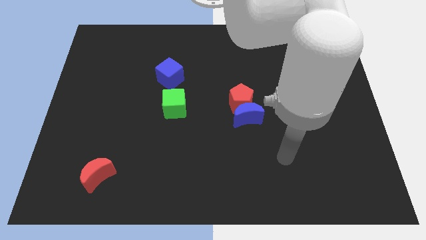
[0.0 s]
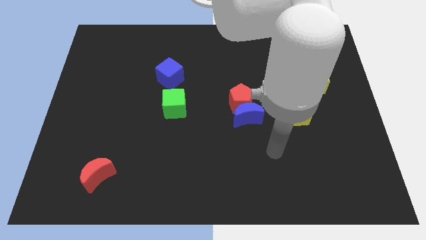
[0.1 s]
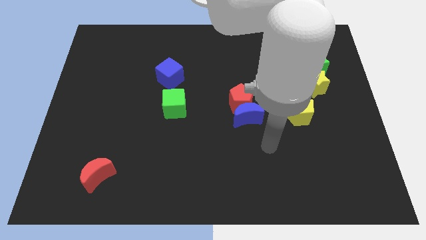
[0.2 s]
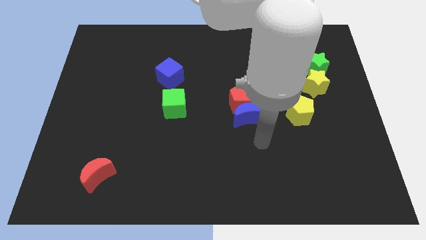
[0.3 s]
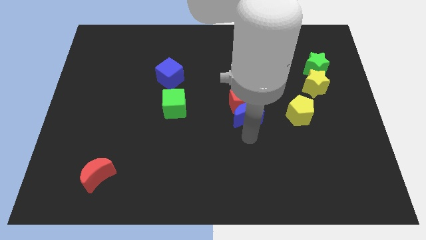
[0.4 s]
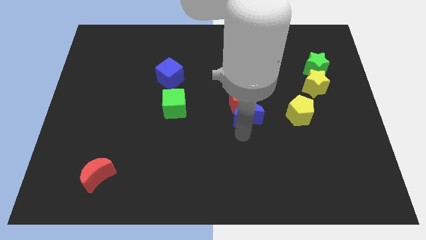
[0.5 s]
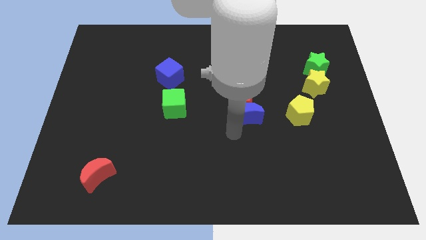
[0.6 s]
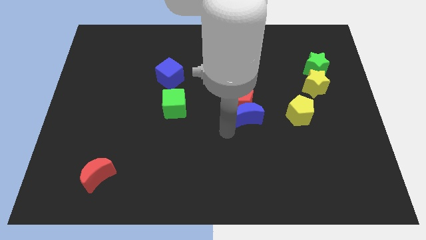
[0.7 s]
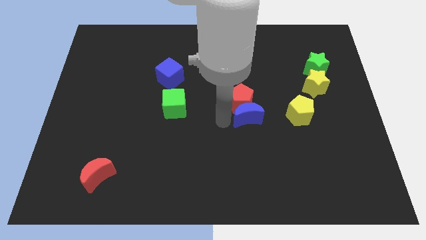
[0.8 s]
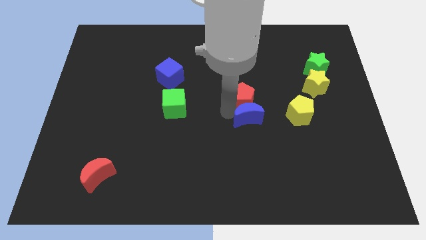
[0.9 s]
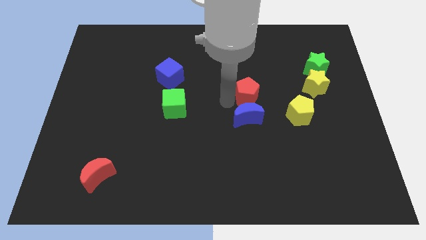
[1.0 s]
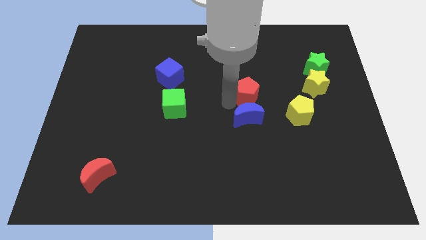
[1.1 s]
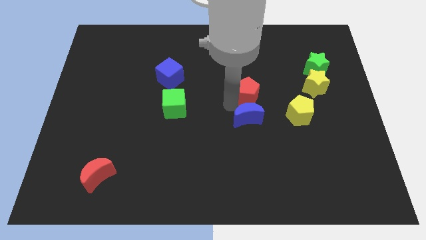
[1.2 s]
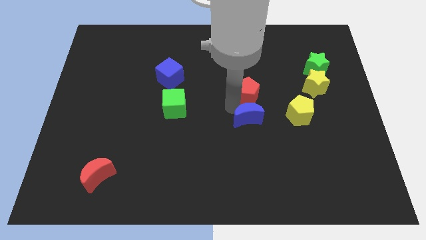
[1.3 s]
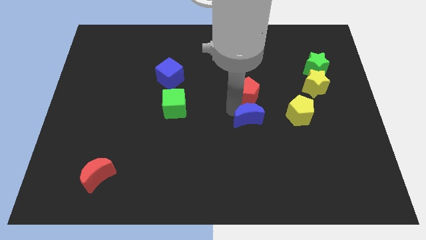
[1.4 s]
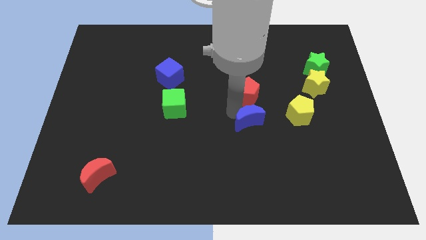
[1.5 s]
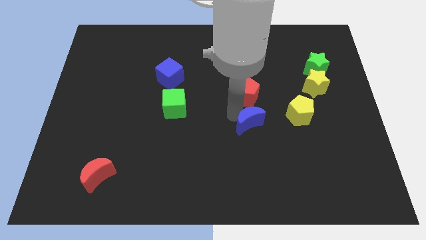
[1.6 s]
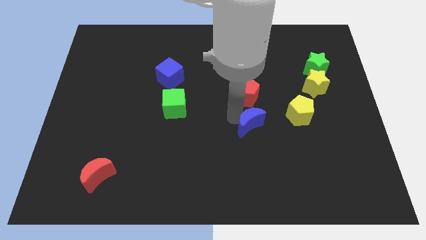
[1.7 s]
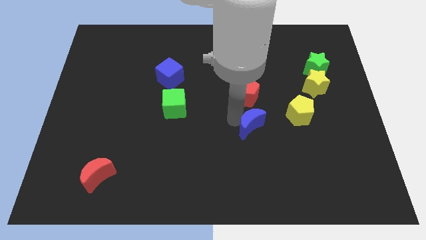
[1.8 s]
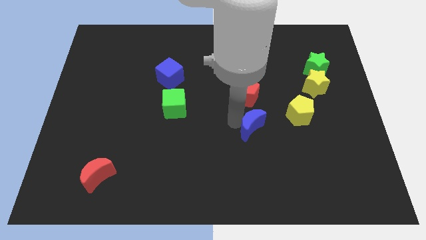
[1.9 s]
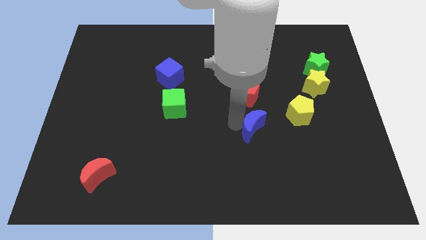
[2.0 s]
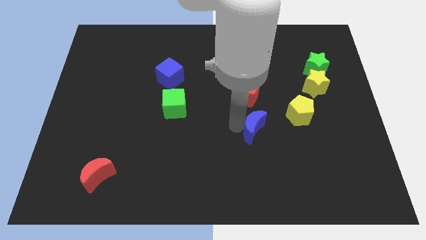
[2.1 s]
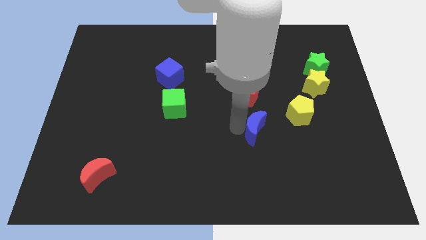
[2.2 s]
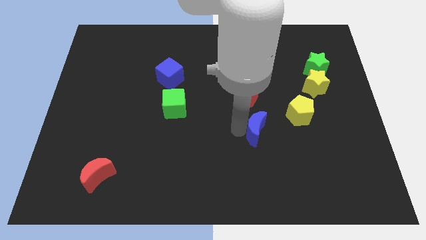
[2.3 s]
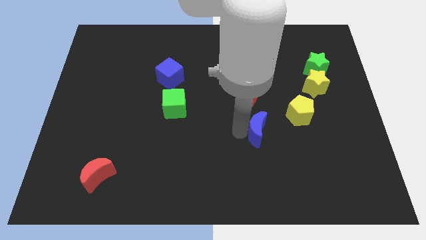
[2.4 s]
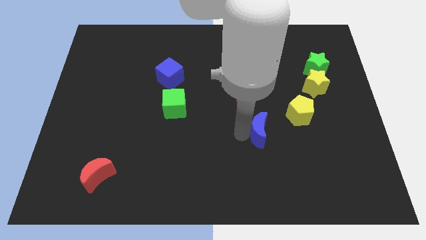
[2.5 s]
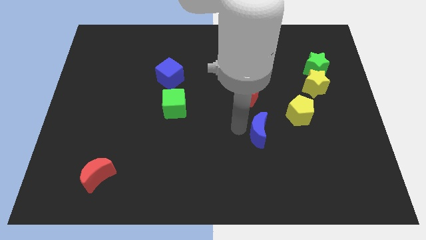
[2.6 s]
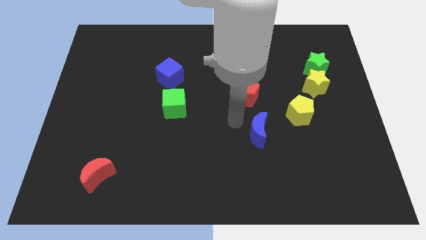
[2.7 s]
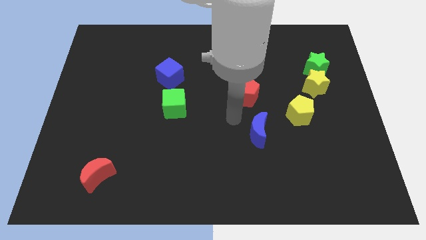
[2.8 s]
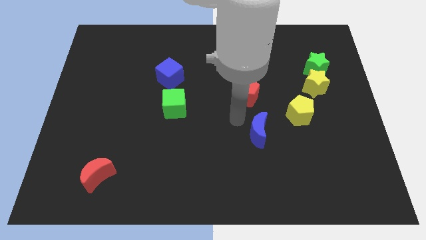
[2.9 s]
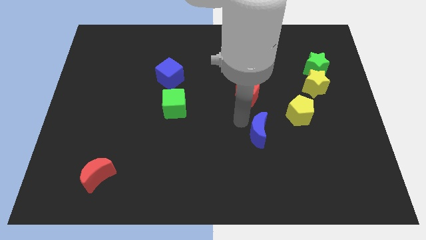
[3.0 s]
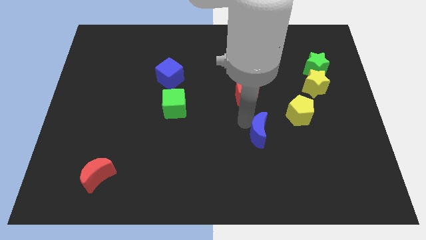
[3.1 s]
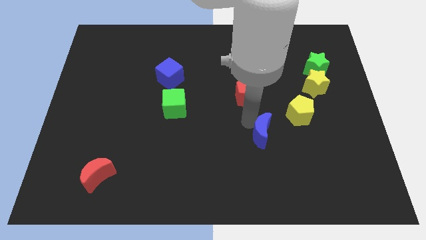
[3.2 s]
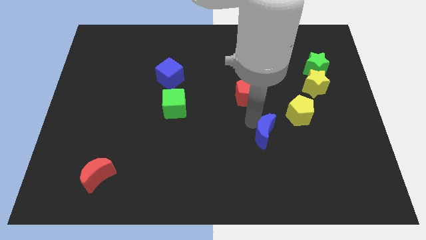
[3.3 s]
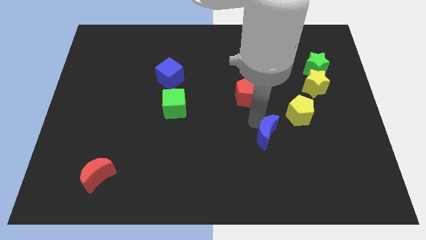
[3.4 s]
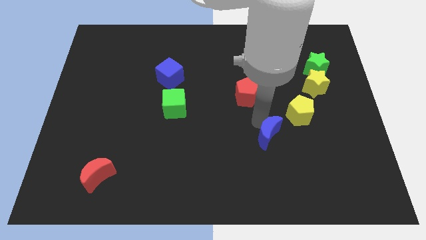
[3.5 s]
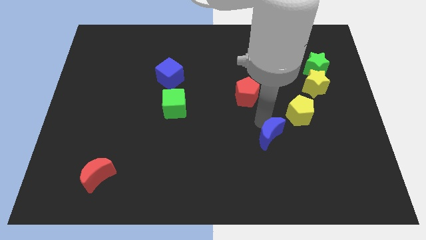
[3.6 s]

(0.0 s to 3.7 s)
move the blue moon down and right a little

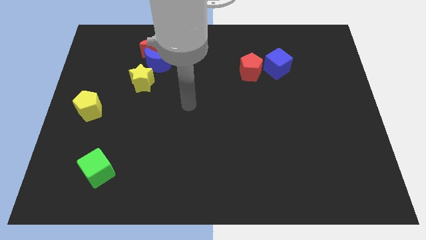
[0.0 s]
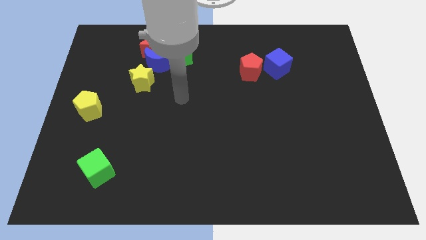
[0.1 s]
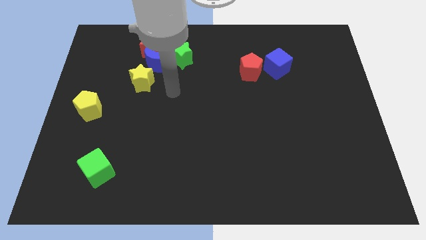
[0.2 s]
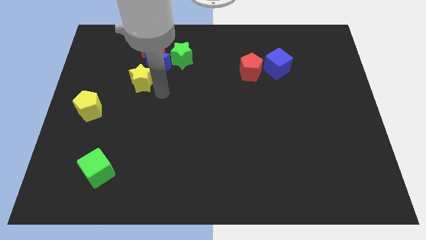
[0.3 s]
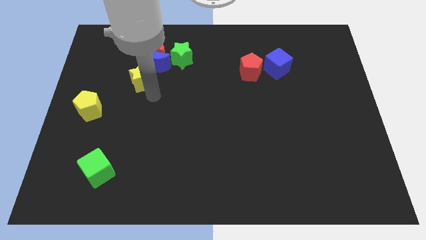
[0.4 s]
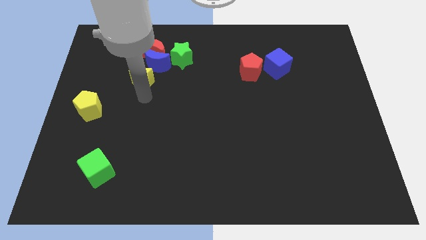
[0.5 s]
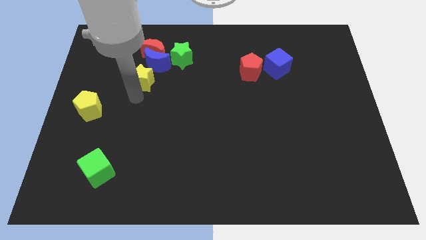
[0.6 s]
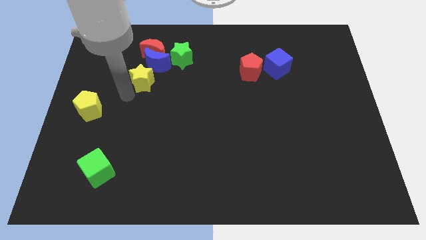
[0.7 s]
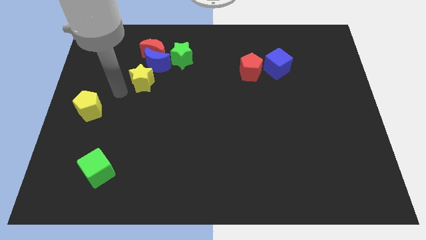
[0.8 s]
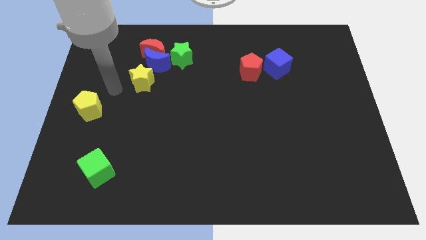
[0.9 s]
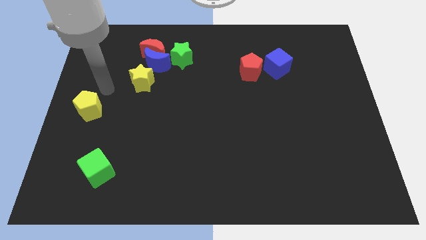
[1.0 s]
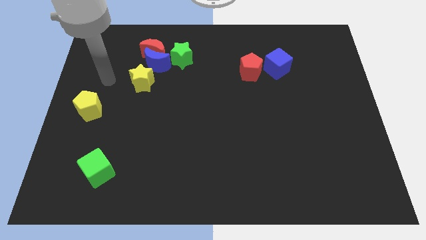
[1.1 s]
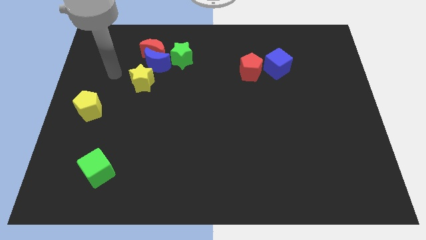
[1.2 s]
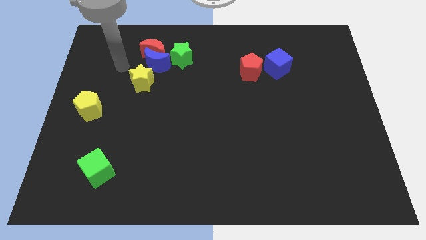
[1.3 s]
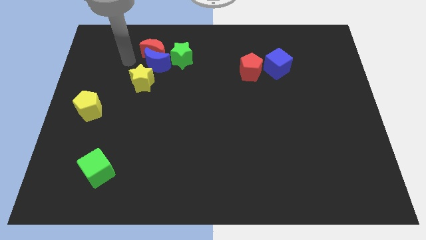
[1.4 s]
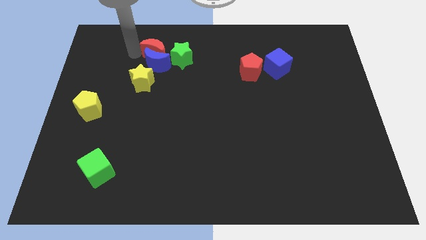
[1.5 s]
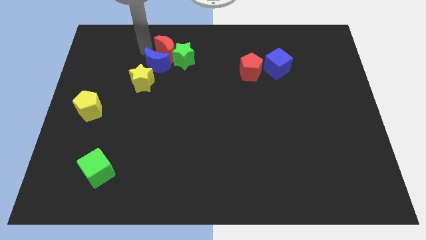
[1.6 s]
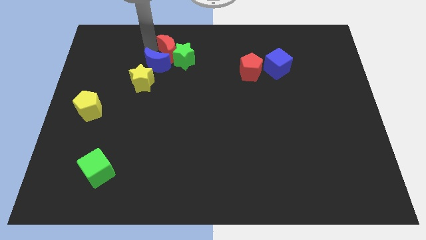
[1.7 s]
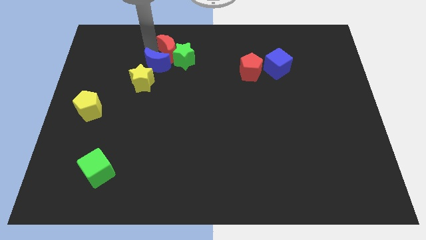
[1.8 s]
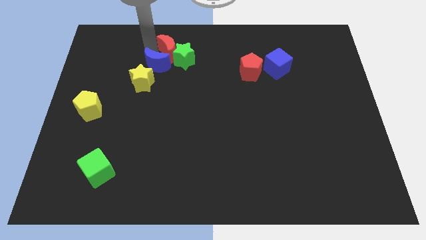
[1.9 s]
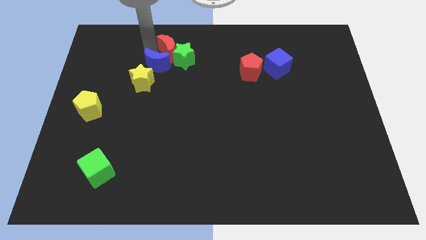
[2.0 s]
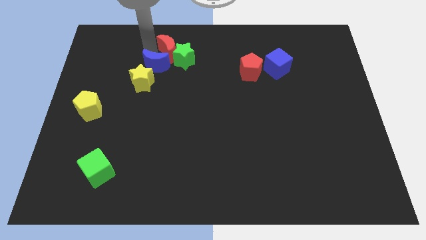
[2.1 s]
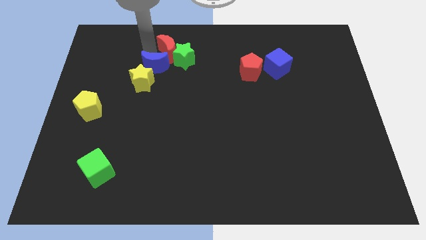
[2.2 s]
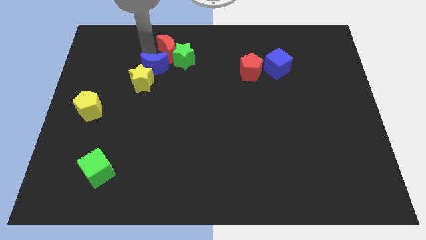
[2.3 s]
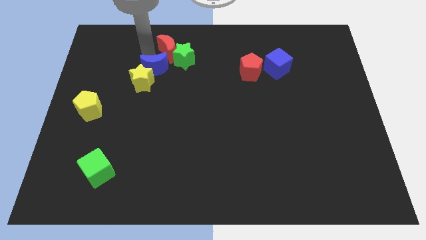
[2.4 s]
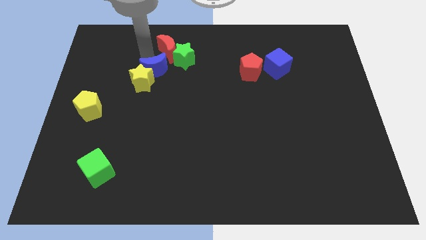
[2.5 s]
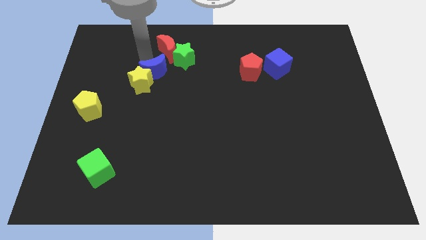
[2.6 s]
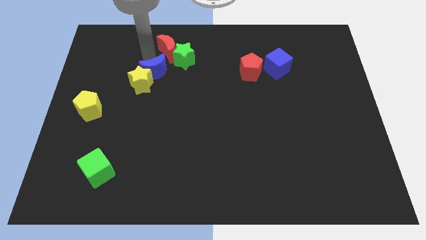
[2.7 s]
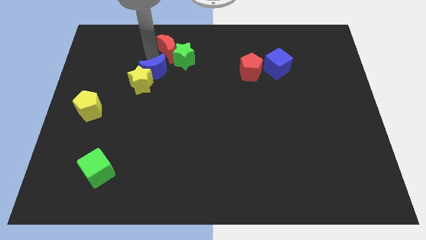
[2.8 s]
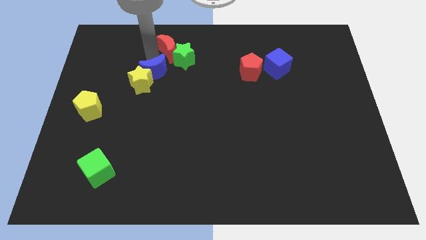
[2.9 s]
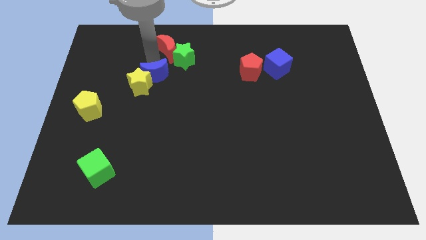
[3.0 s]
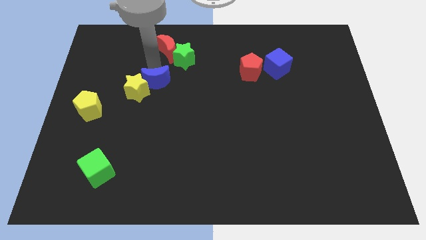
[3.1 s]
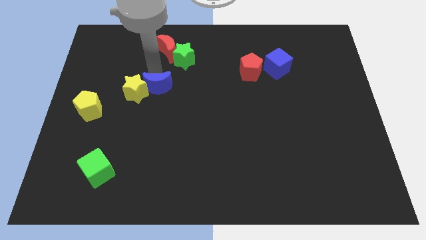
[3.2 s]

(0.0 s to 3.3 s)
slightly move the blue moon downwards

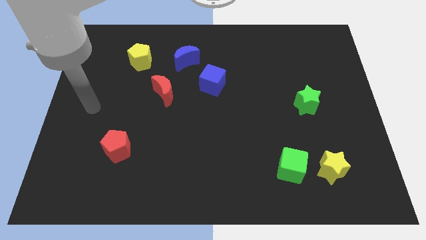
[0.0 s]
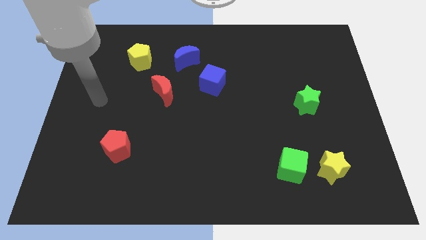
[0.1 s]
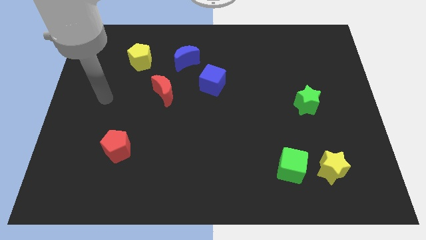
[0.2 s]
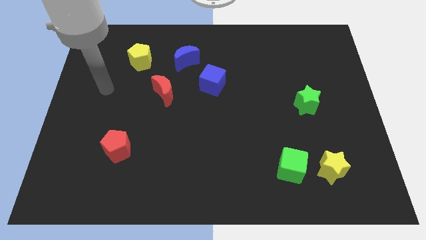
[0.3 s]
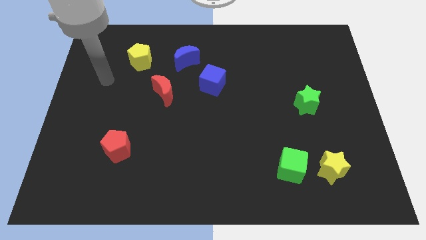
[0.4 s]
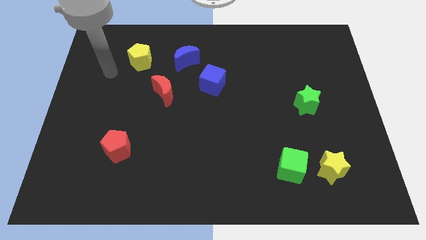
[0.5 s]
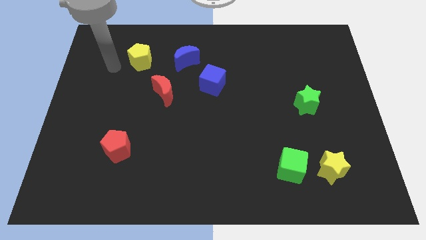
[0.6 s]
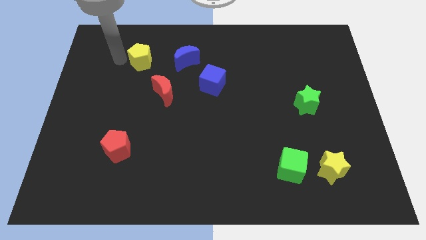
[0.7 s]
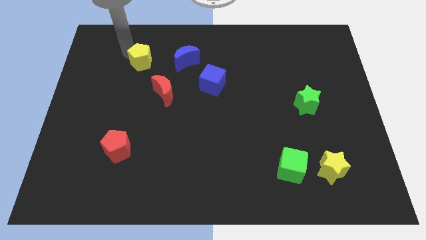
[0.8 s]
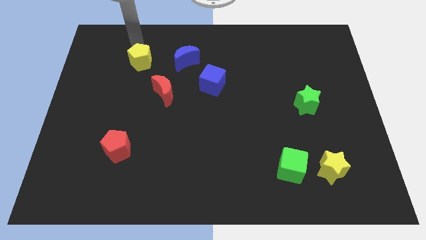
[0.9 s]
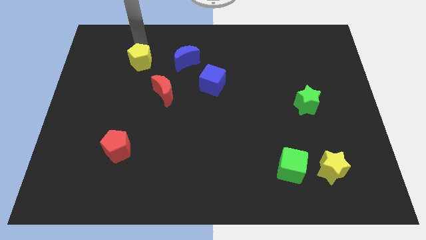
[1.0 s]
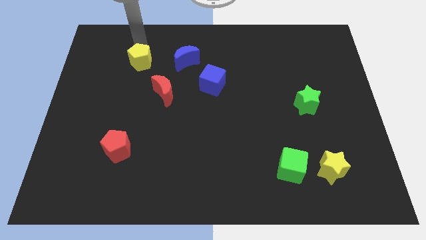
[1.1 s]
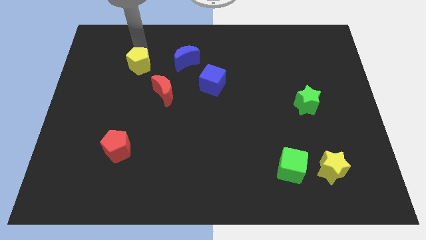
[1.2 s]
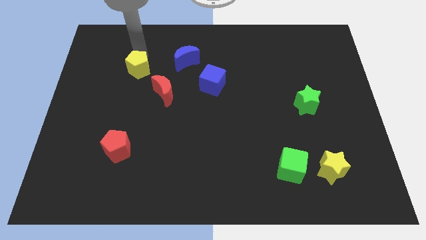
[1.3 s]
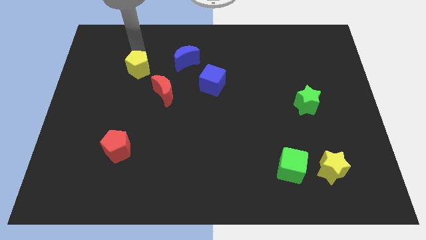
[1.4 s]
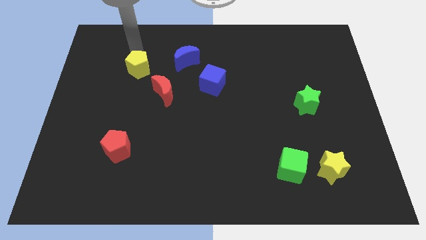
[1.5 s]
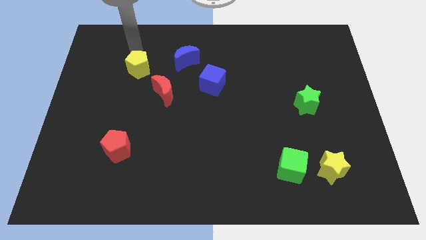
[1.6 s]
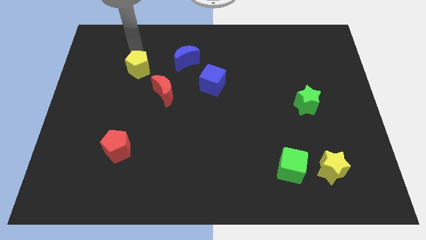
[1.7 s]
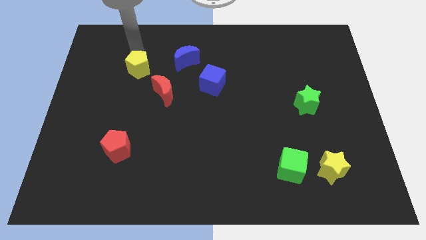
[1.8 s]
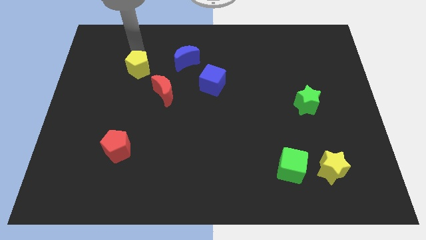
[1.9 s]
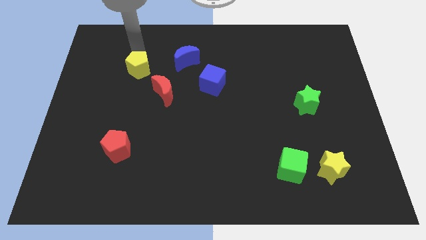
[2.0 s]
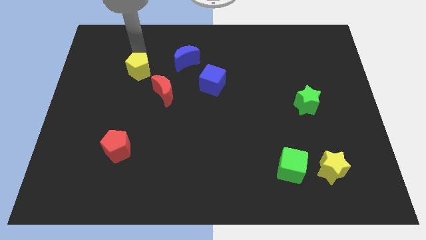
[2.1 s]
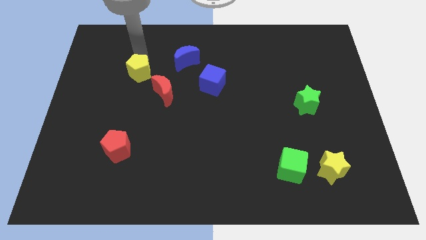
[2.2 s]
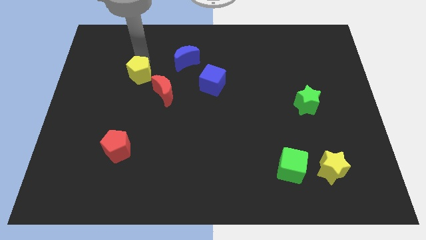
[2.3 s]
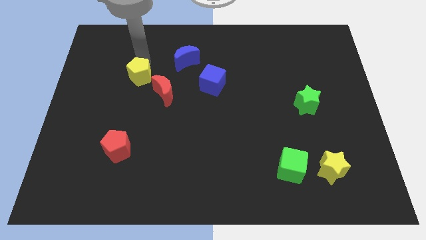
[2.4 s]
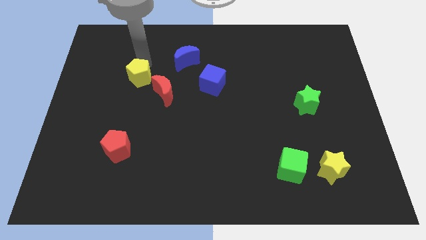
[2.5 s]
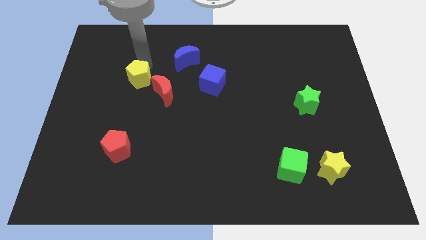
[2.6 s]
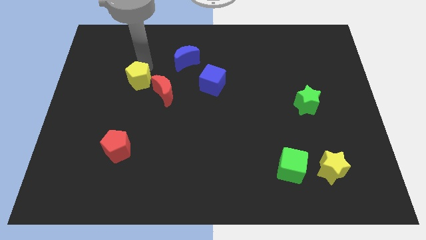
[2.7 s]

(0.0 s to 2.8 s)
slightly push the yellow pentagon down
